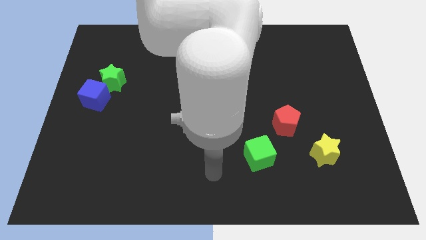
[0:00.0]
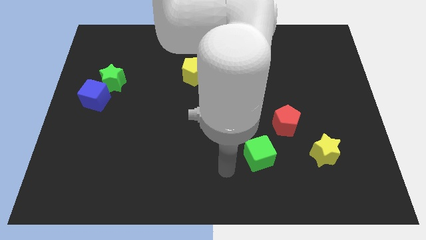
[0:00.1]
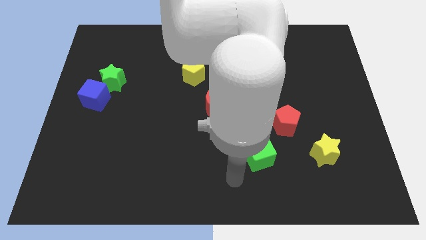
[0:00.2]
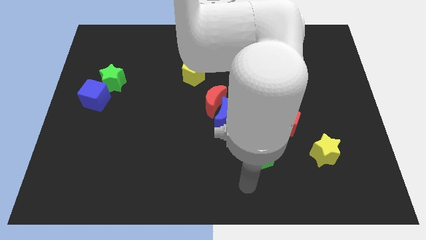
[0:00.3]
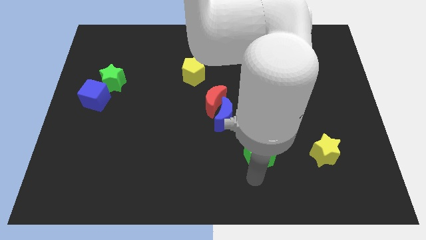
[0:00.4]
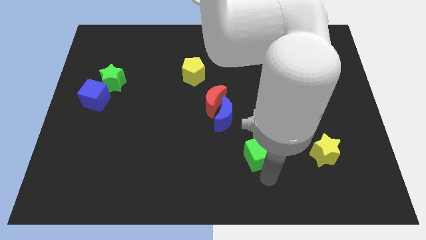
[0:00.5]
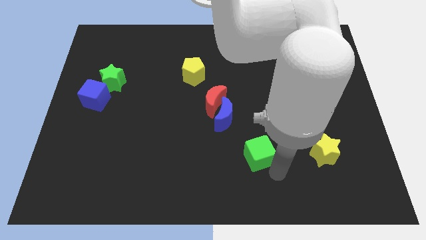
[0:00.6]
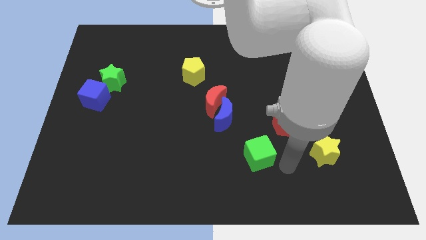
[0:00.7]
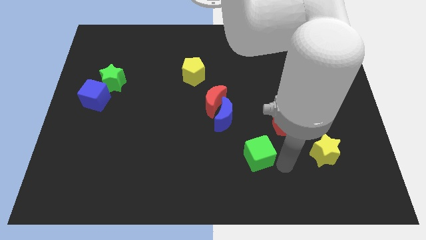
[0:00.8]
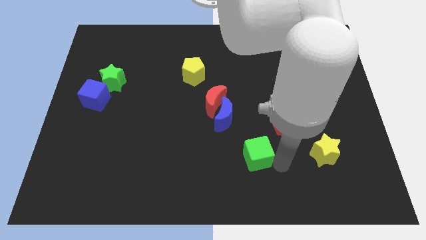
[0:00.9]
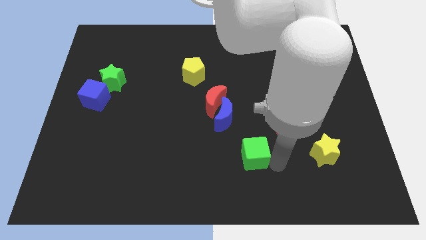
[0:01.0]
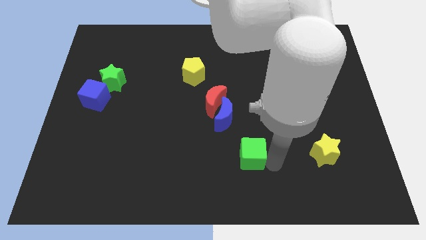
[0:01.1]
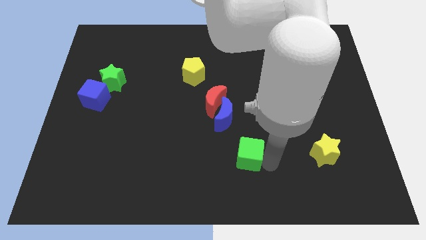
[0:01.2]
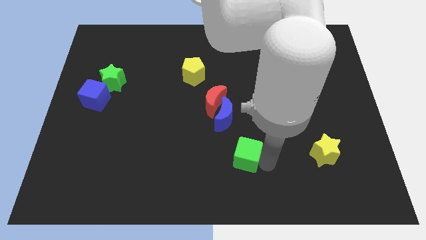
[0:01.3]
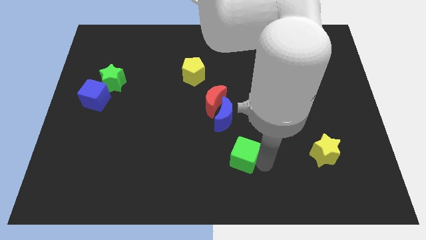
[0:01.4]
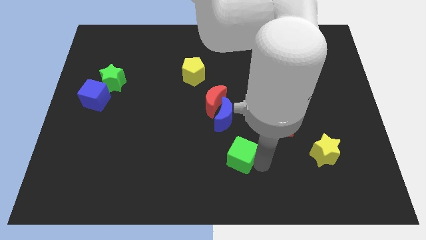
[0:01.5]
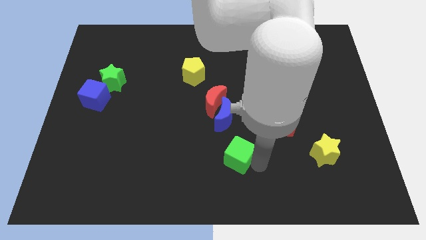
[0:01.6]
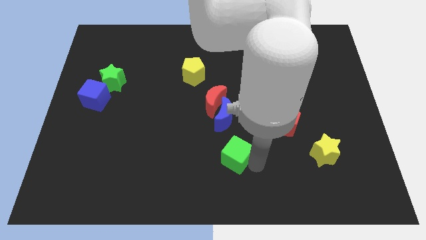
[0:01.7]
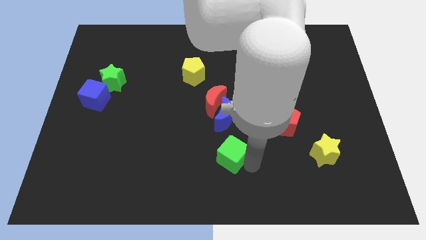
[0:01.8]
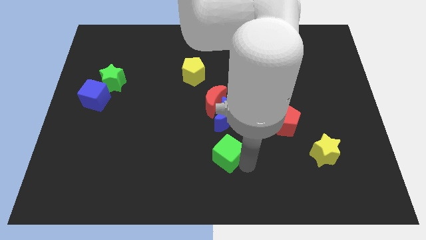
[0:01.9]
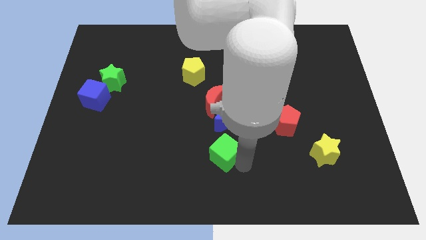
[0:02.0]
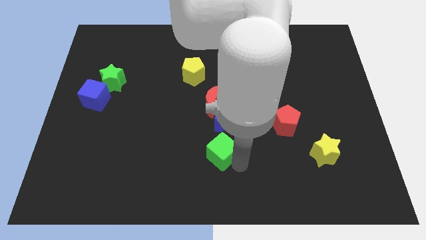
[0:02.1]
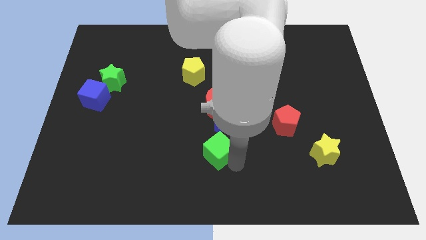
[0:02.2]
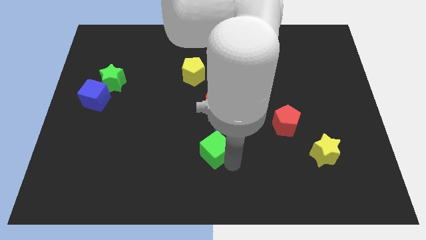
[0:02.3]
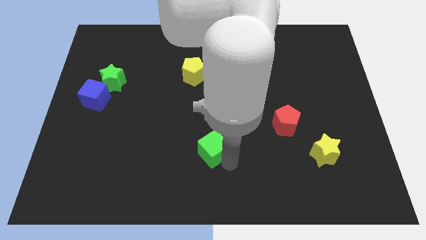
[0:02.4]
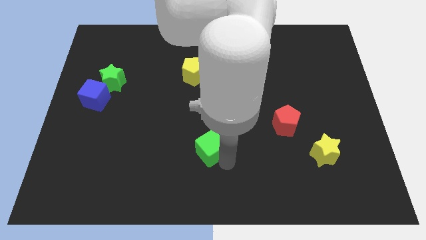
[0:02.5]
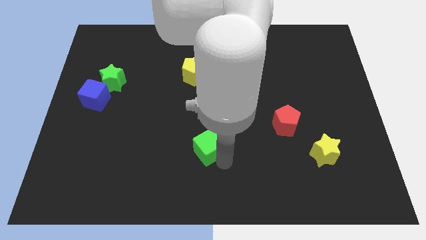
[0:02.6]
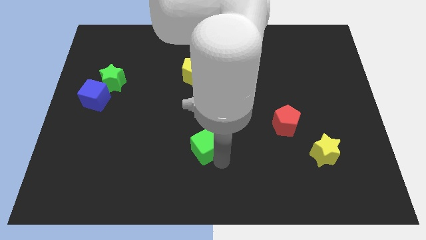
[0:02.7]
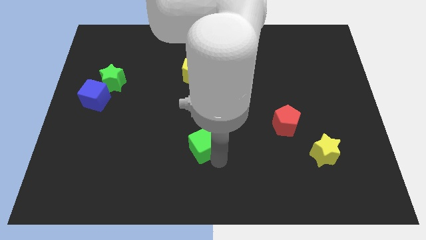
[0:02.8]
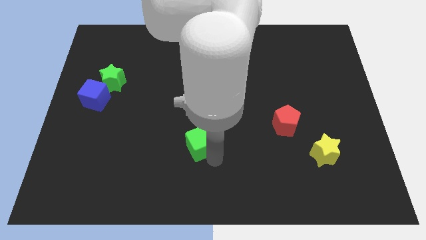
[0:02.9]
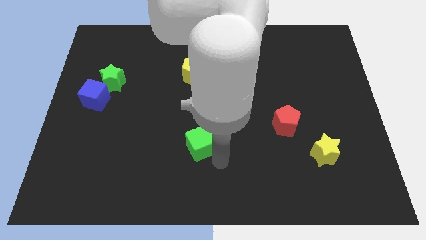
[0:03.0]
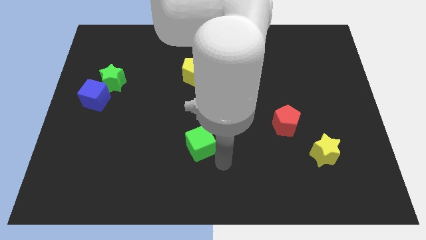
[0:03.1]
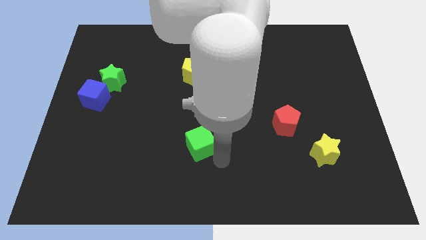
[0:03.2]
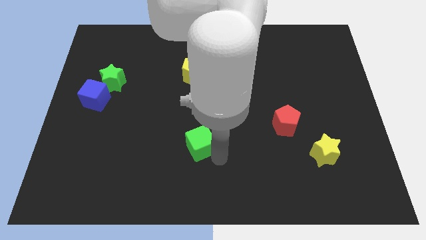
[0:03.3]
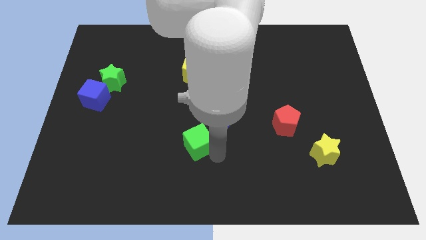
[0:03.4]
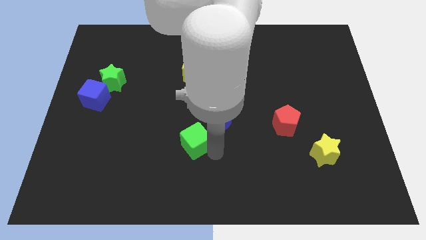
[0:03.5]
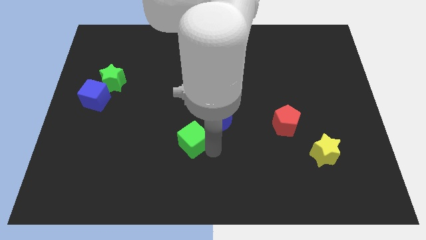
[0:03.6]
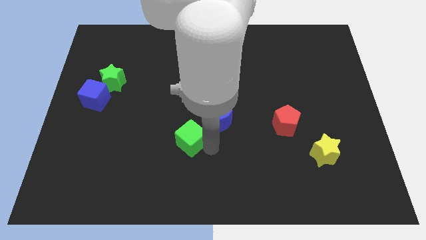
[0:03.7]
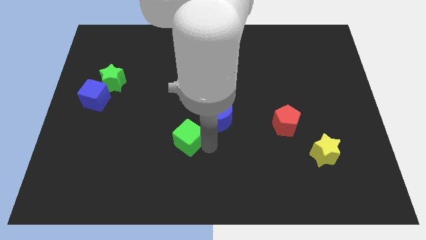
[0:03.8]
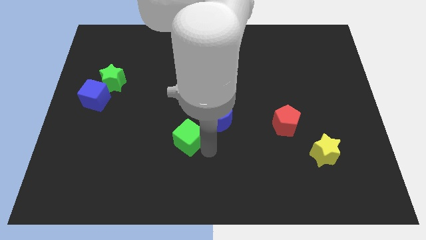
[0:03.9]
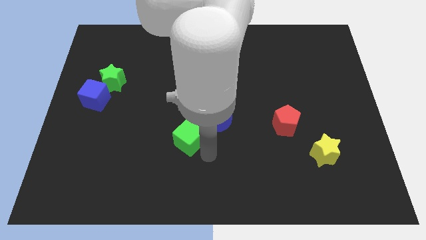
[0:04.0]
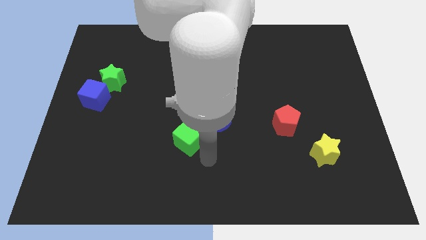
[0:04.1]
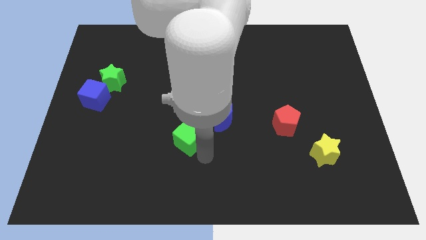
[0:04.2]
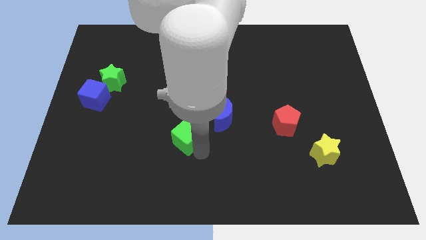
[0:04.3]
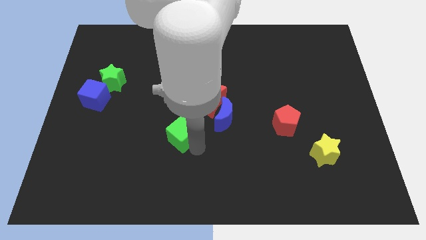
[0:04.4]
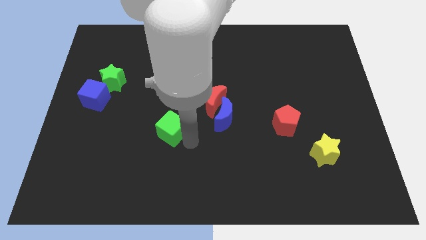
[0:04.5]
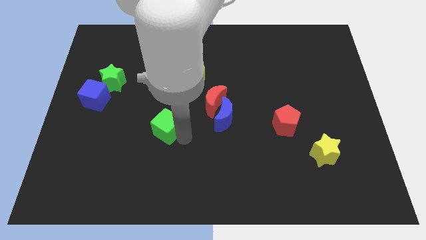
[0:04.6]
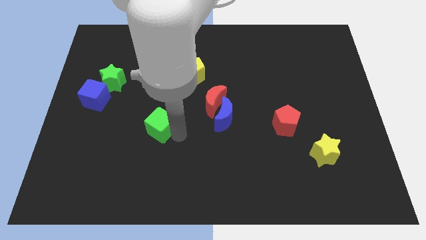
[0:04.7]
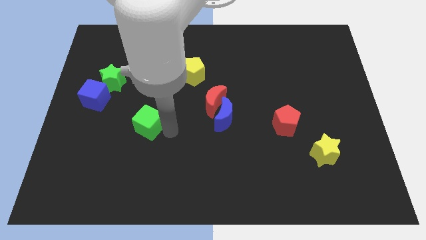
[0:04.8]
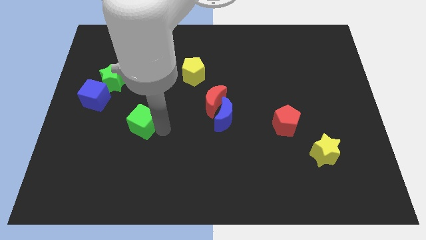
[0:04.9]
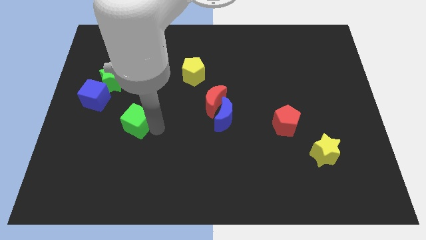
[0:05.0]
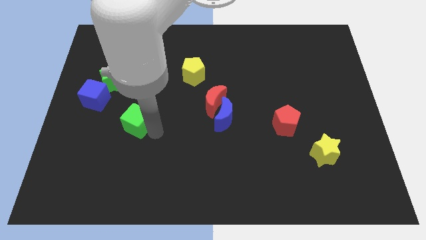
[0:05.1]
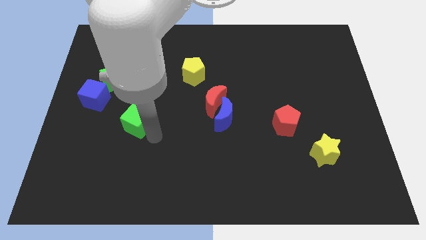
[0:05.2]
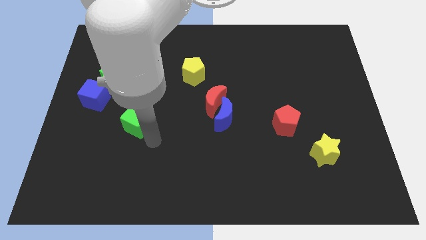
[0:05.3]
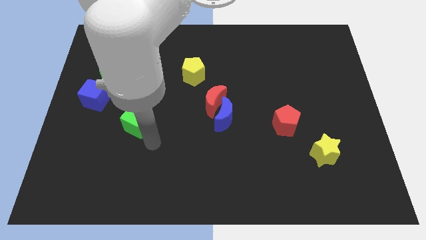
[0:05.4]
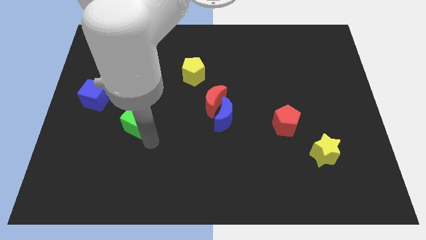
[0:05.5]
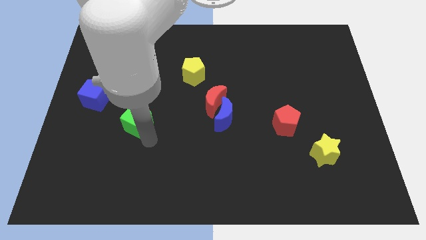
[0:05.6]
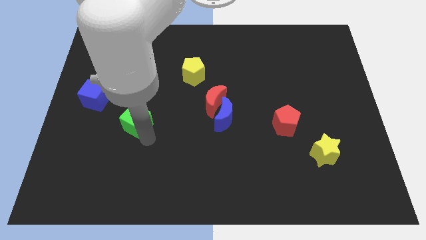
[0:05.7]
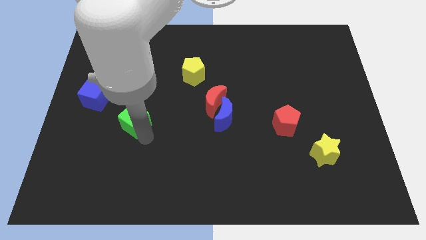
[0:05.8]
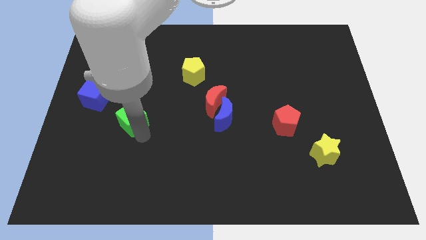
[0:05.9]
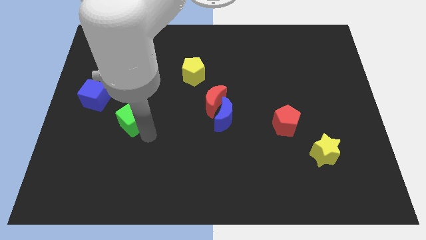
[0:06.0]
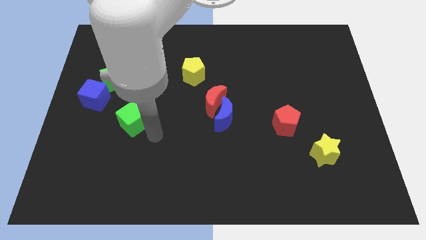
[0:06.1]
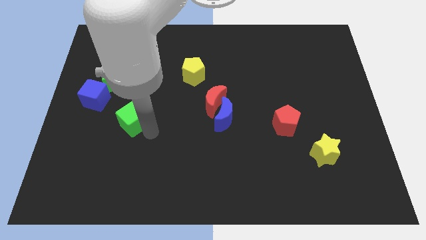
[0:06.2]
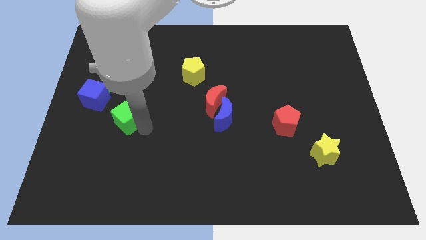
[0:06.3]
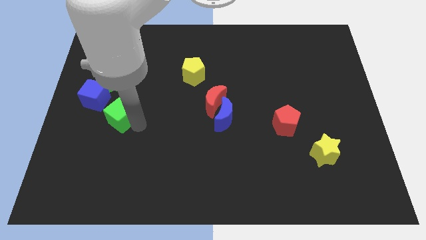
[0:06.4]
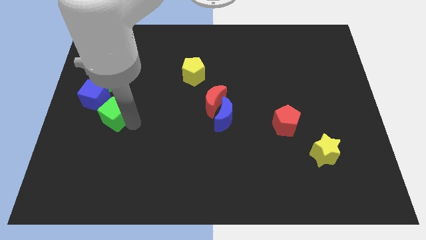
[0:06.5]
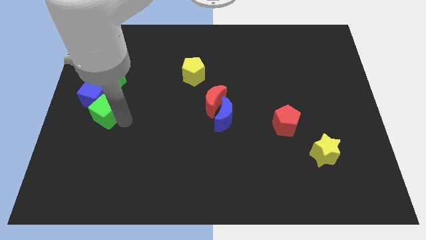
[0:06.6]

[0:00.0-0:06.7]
push the green cube to the blue cube

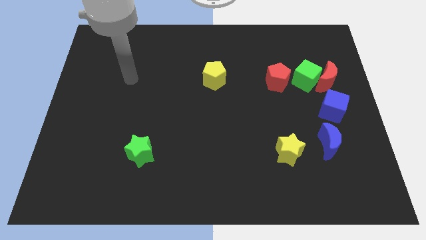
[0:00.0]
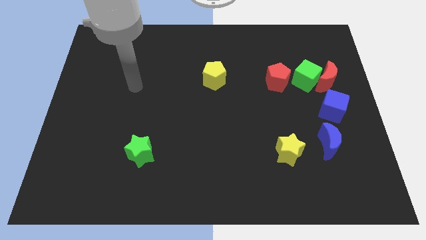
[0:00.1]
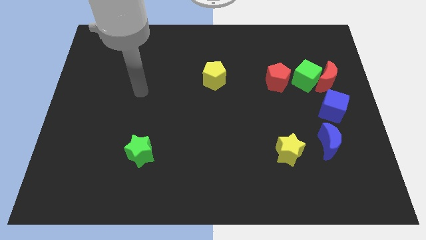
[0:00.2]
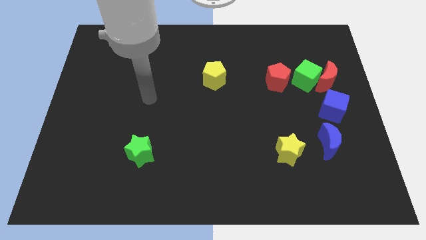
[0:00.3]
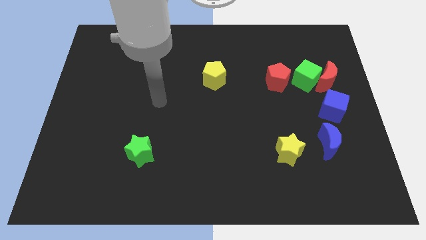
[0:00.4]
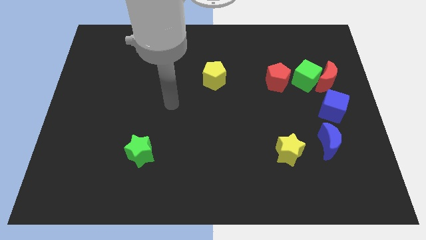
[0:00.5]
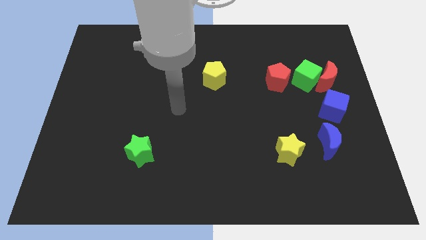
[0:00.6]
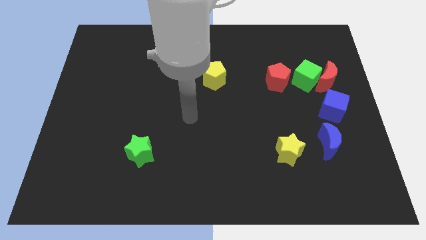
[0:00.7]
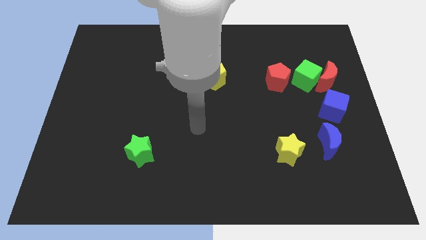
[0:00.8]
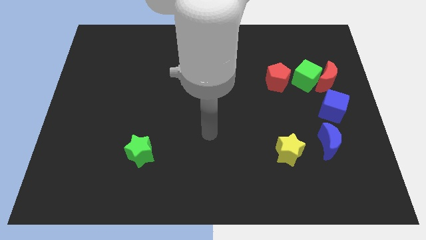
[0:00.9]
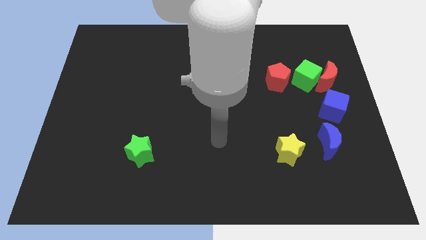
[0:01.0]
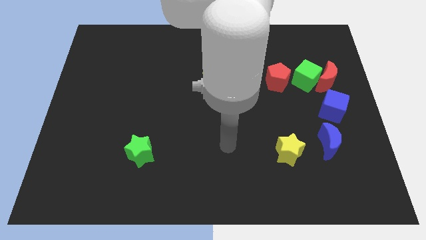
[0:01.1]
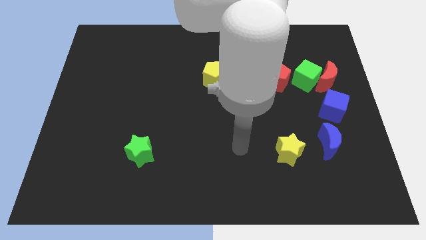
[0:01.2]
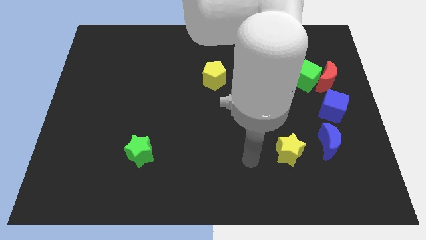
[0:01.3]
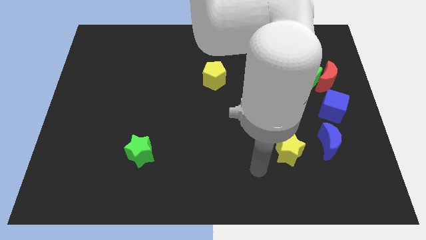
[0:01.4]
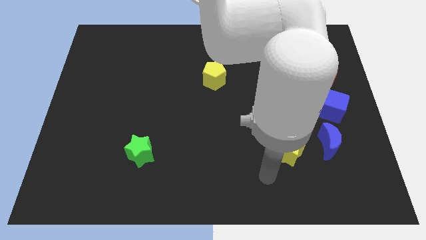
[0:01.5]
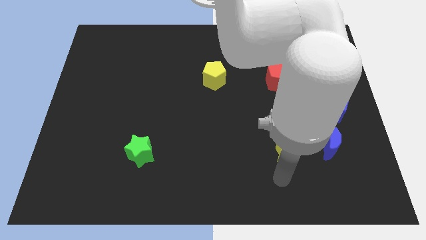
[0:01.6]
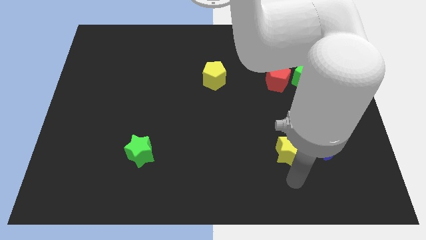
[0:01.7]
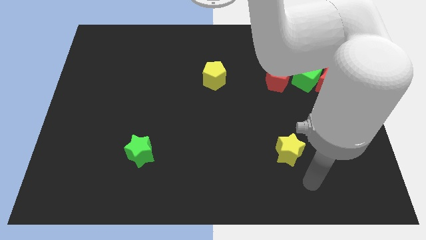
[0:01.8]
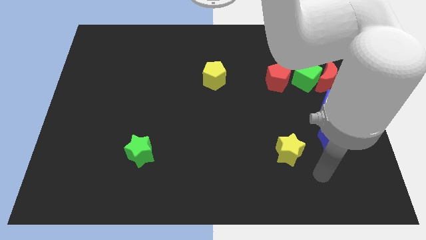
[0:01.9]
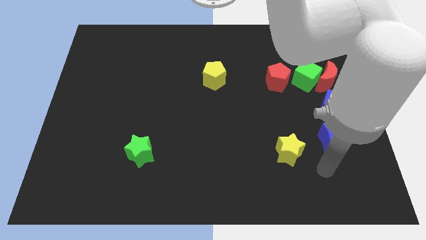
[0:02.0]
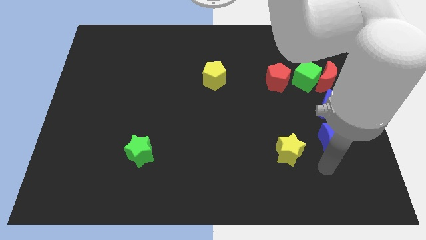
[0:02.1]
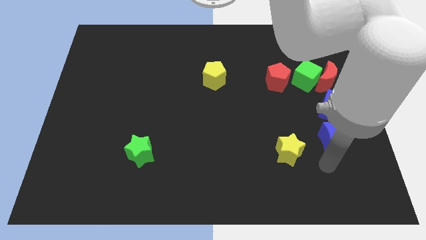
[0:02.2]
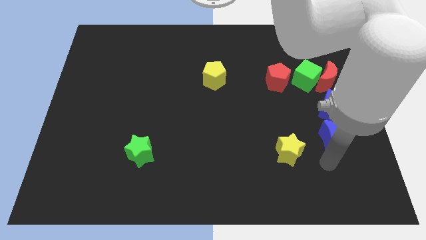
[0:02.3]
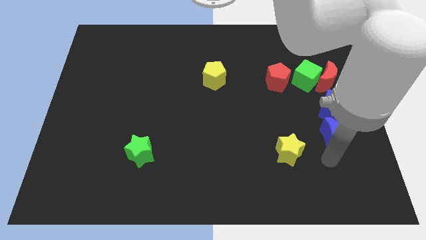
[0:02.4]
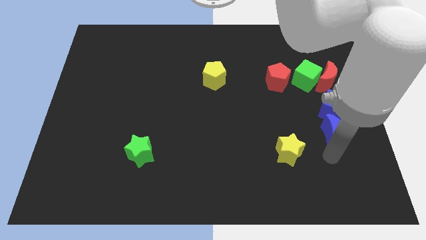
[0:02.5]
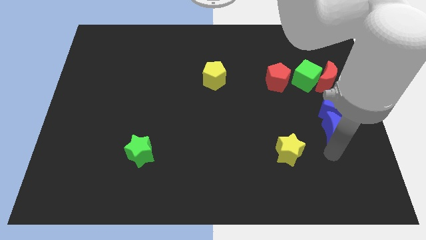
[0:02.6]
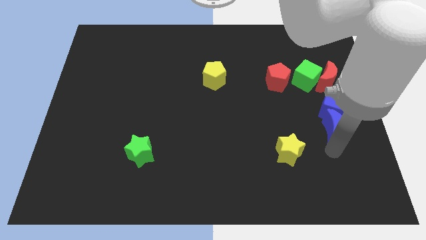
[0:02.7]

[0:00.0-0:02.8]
move the blue moon close to the blue cube
